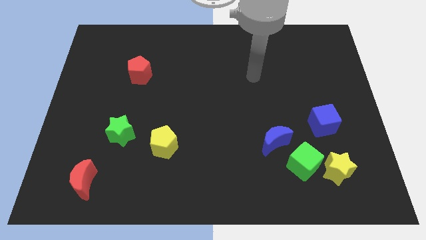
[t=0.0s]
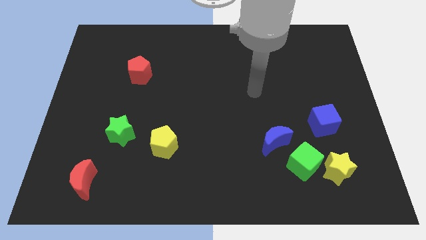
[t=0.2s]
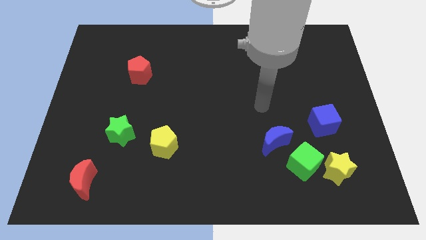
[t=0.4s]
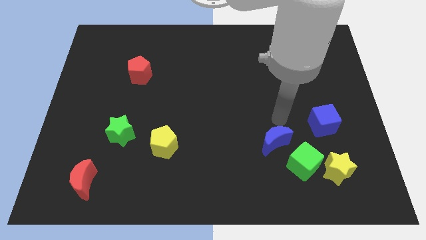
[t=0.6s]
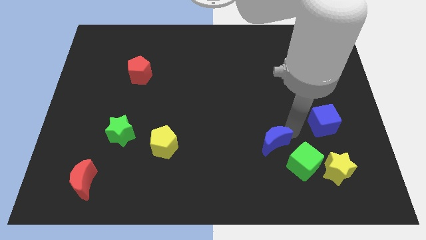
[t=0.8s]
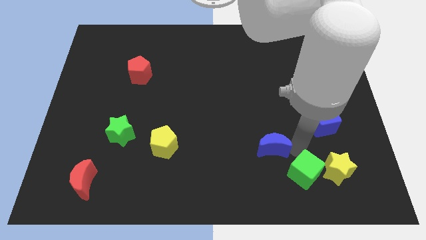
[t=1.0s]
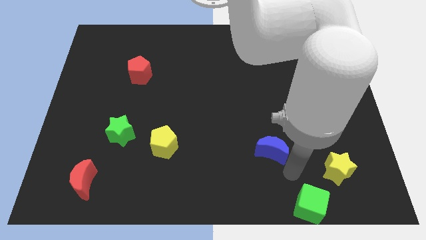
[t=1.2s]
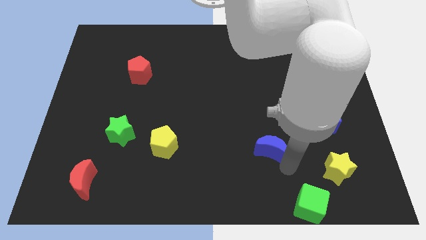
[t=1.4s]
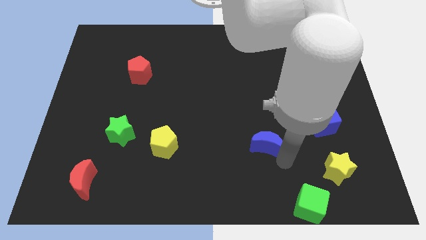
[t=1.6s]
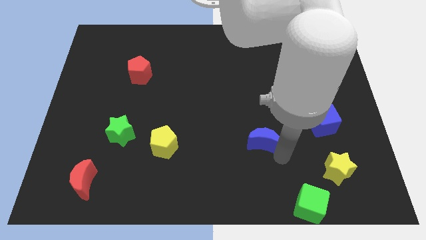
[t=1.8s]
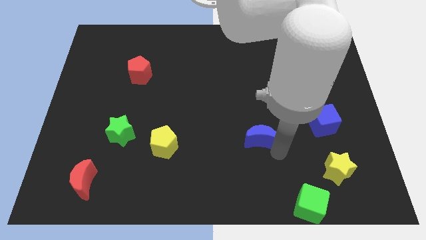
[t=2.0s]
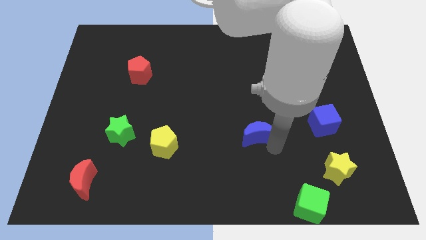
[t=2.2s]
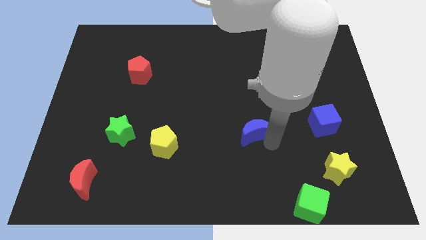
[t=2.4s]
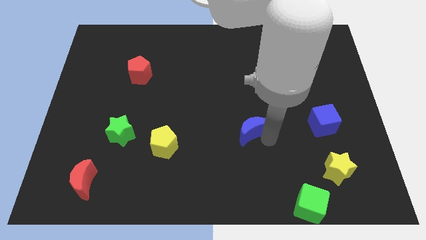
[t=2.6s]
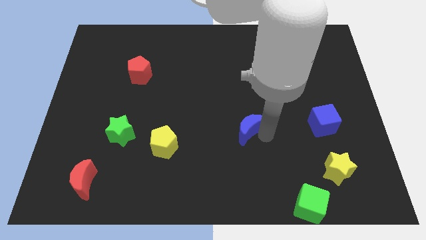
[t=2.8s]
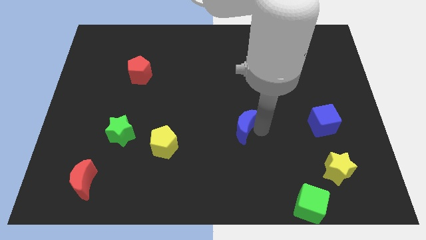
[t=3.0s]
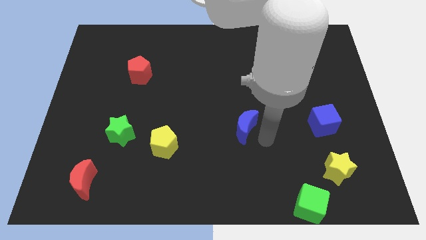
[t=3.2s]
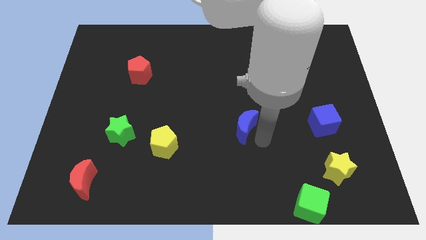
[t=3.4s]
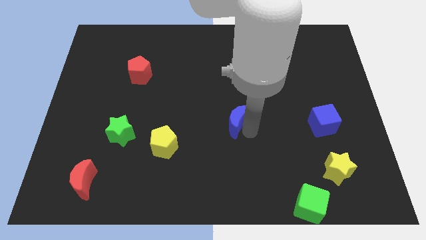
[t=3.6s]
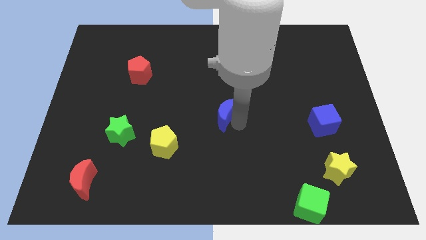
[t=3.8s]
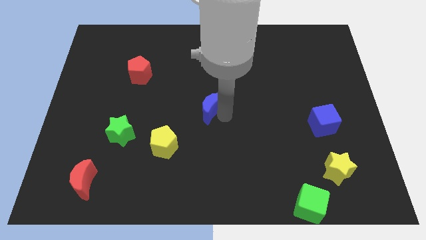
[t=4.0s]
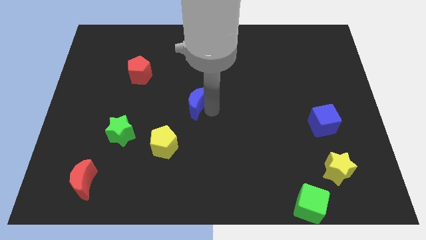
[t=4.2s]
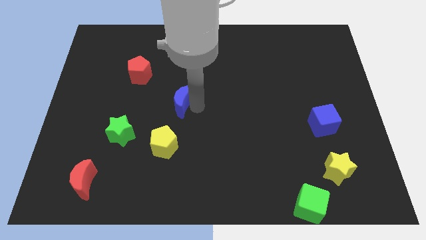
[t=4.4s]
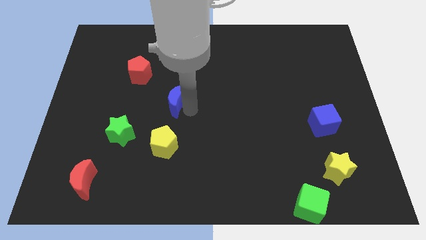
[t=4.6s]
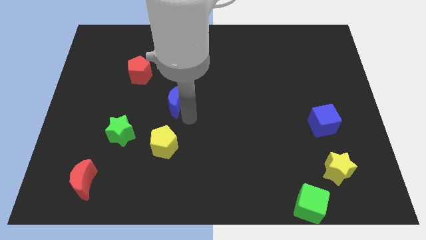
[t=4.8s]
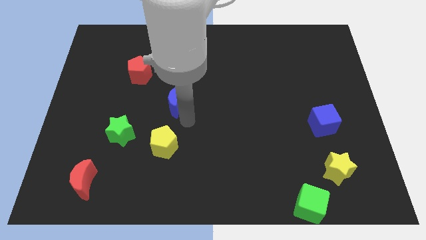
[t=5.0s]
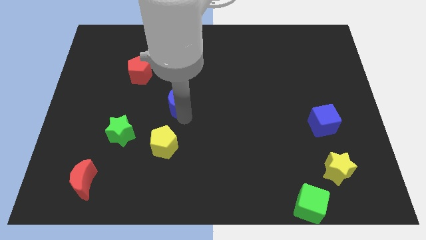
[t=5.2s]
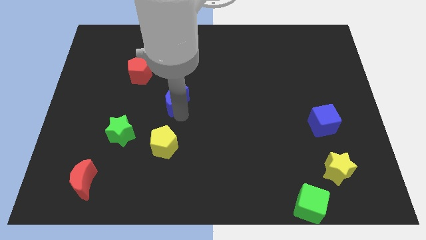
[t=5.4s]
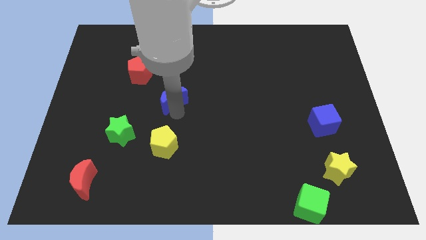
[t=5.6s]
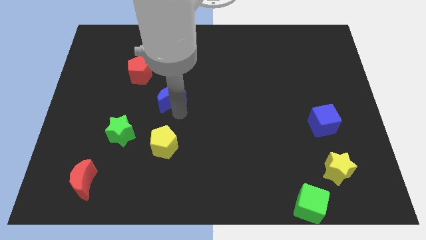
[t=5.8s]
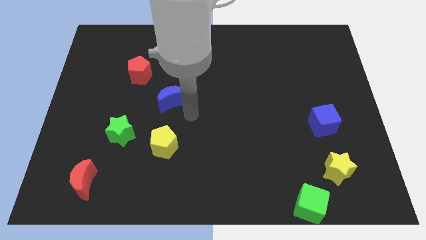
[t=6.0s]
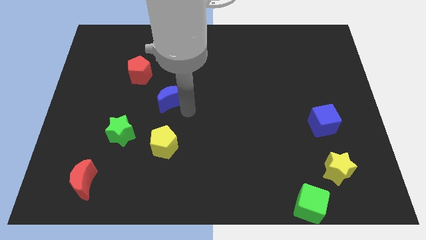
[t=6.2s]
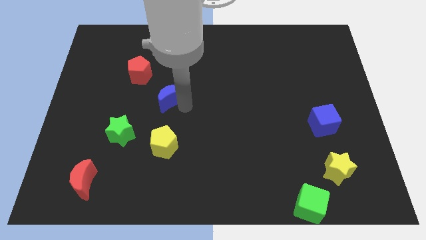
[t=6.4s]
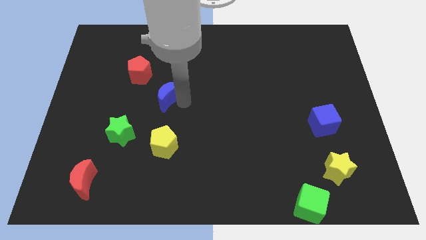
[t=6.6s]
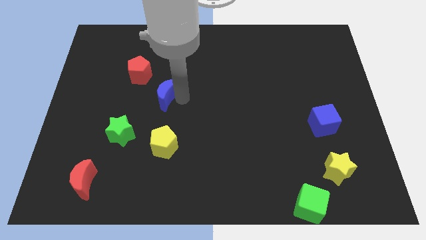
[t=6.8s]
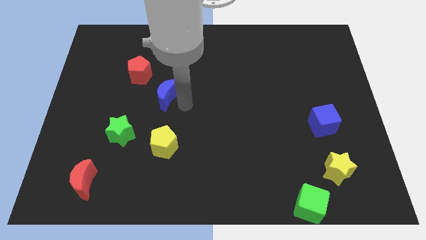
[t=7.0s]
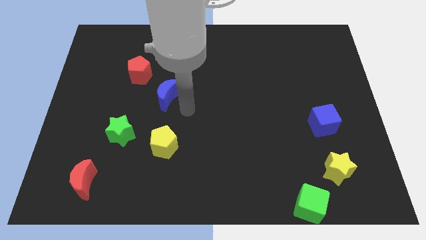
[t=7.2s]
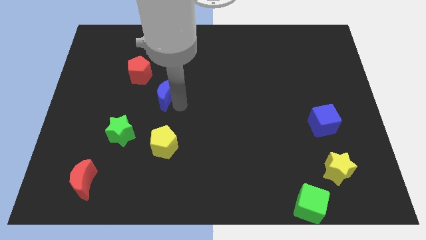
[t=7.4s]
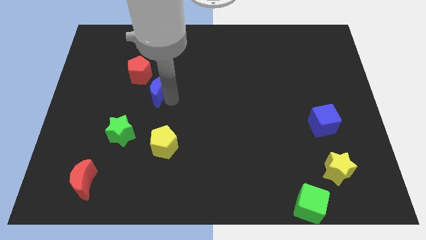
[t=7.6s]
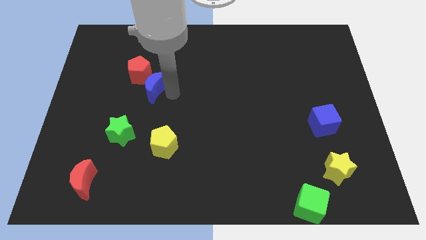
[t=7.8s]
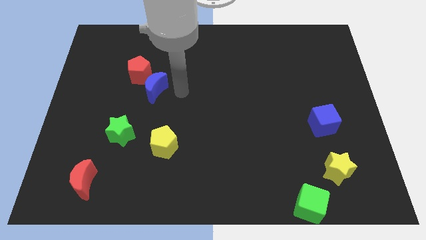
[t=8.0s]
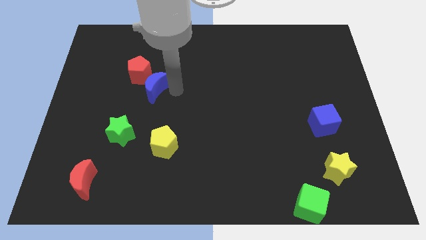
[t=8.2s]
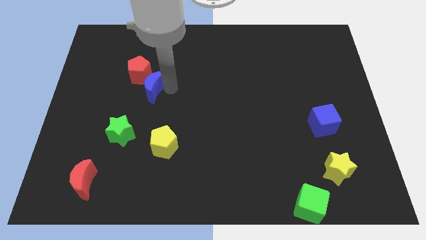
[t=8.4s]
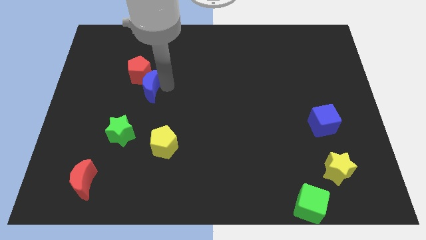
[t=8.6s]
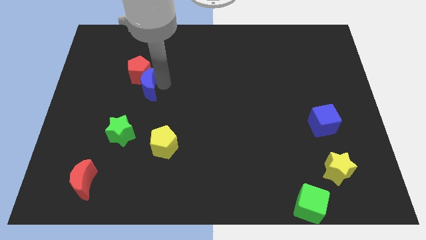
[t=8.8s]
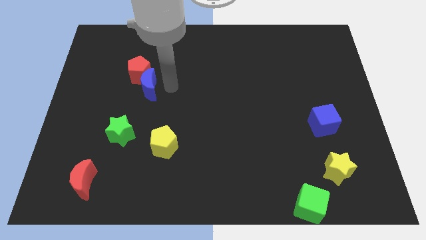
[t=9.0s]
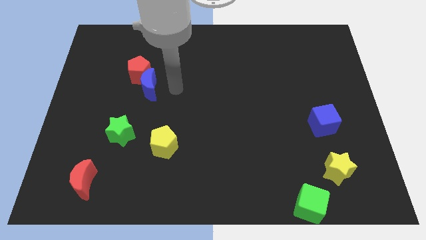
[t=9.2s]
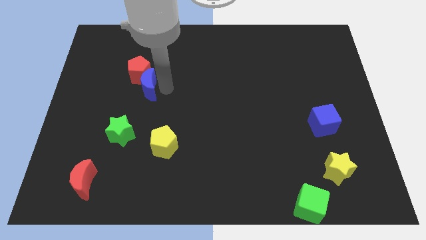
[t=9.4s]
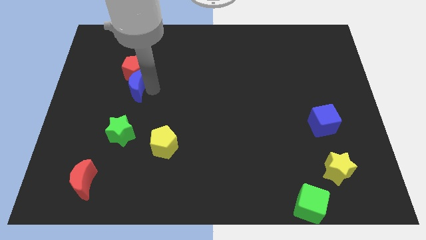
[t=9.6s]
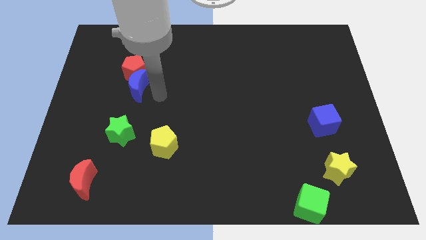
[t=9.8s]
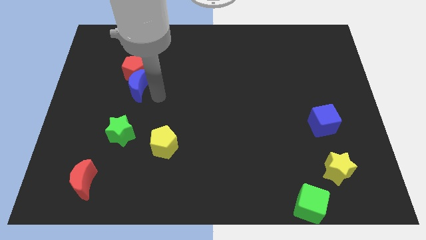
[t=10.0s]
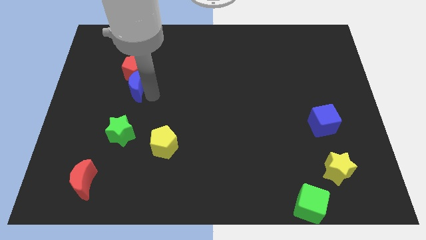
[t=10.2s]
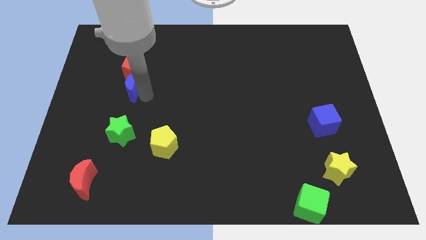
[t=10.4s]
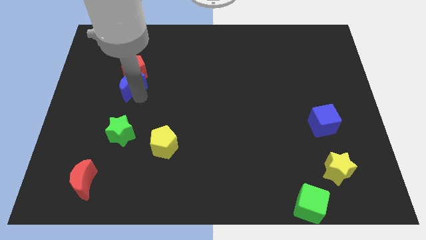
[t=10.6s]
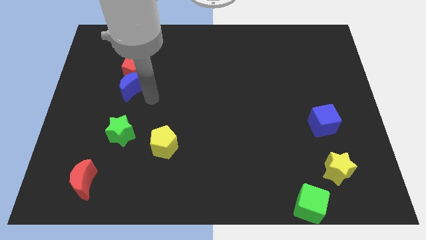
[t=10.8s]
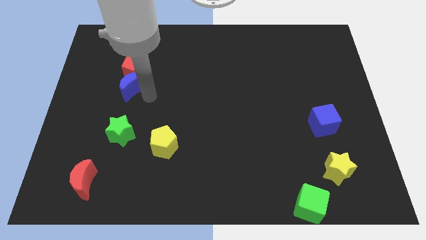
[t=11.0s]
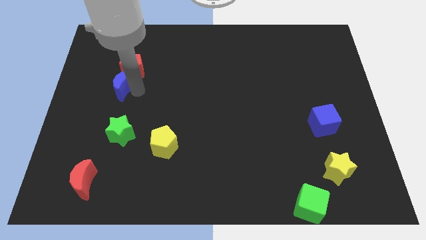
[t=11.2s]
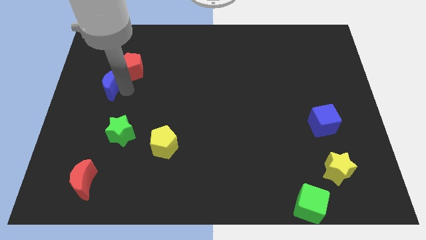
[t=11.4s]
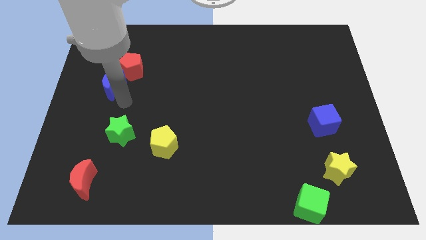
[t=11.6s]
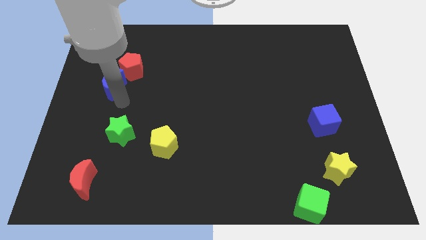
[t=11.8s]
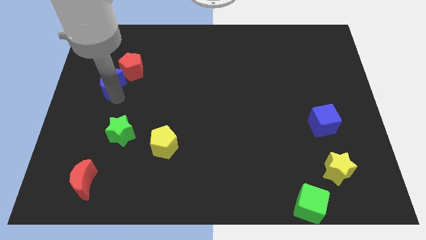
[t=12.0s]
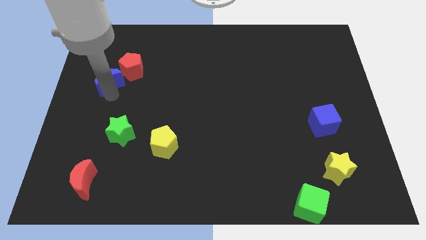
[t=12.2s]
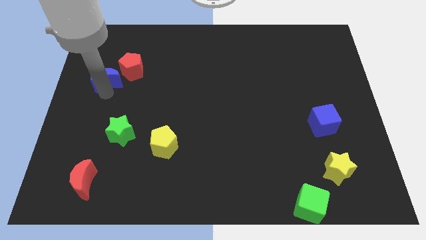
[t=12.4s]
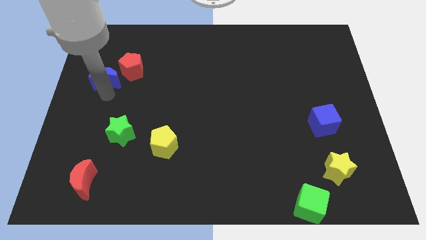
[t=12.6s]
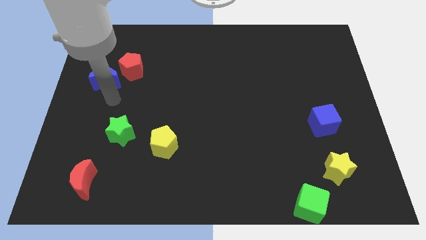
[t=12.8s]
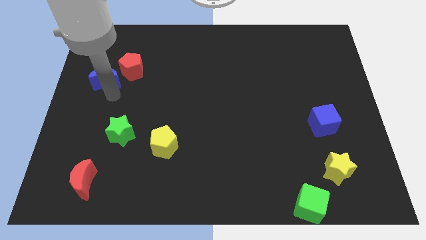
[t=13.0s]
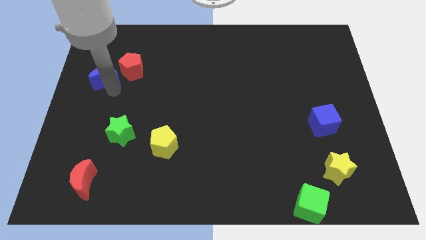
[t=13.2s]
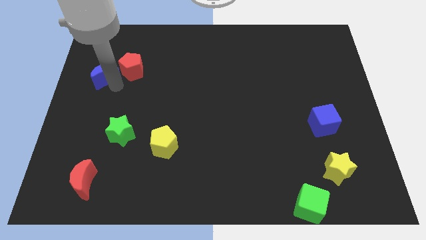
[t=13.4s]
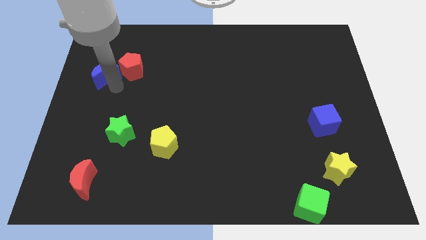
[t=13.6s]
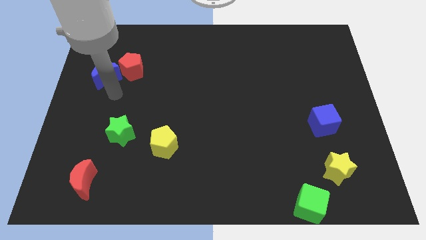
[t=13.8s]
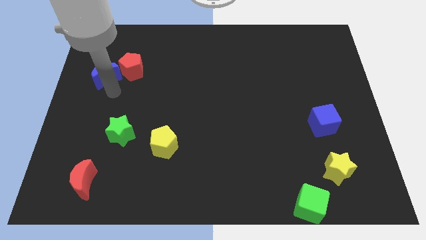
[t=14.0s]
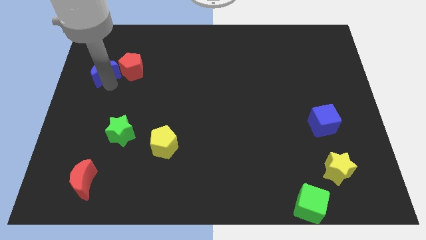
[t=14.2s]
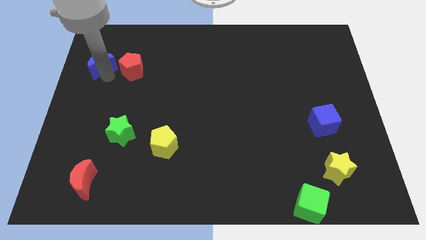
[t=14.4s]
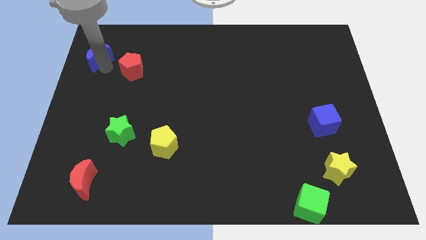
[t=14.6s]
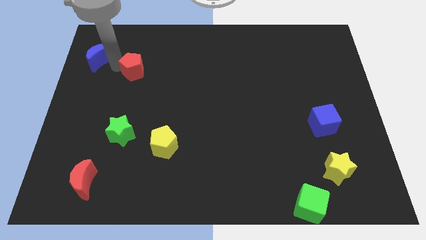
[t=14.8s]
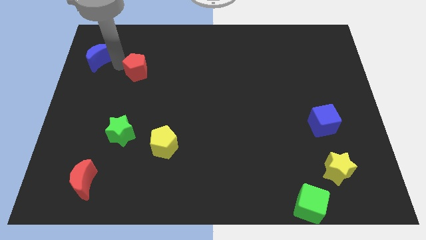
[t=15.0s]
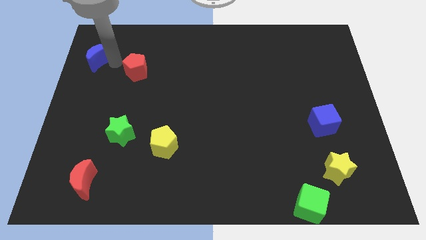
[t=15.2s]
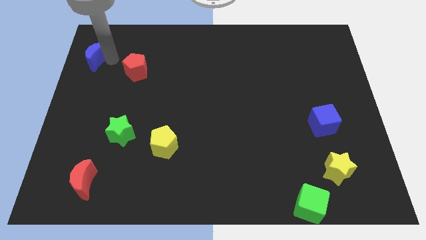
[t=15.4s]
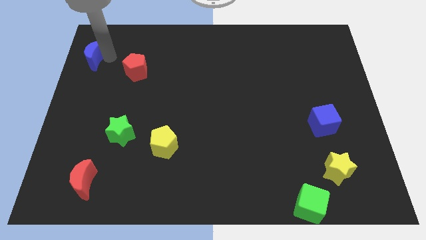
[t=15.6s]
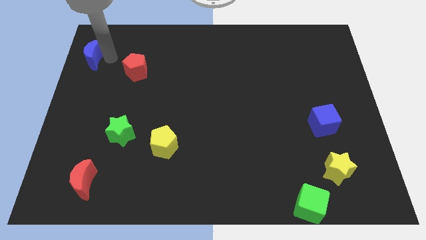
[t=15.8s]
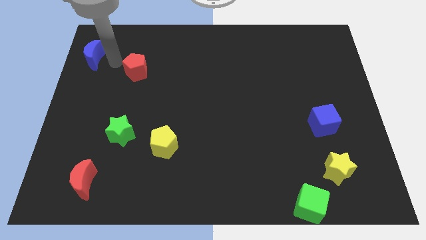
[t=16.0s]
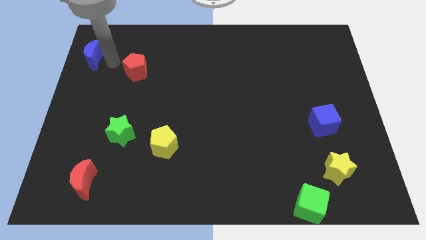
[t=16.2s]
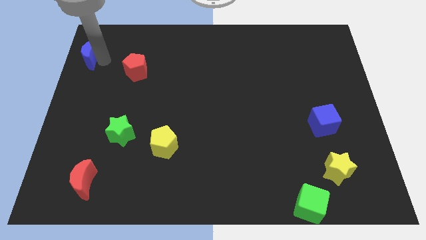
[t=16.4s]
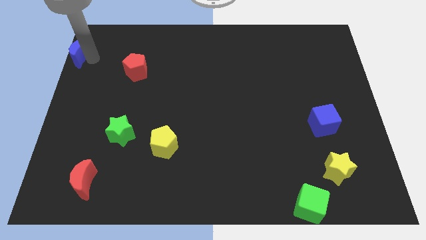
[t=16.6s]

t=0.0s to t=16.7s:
move the blue moon to the upper left corner
